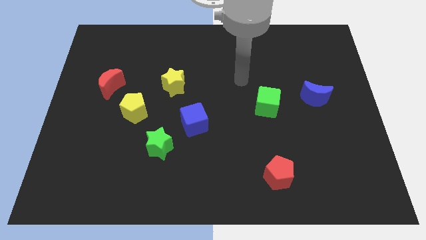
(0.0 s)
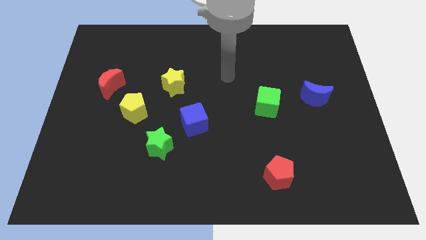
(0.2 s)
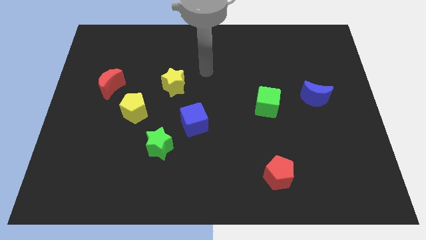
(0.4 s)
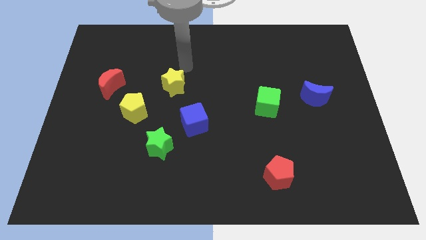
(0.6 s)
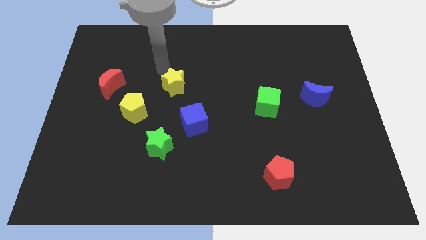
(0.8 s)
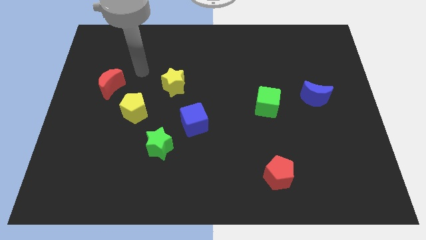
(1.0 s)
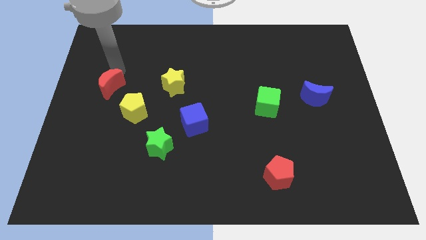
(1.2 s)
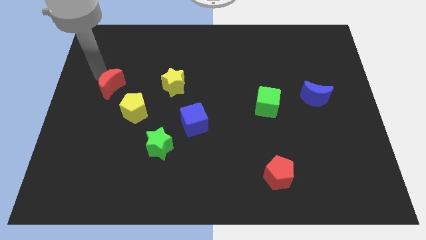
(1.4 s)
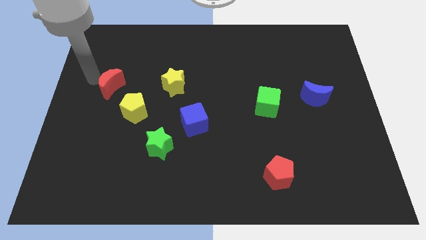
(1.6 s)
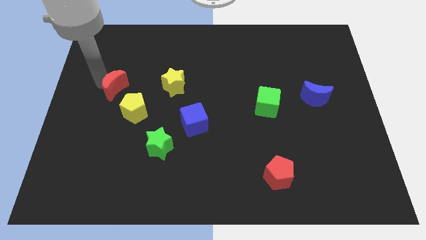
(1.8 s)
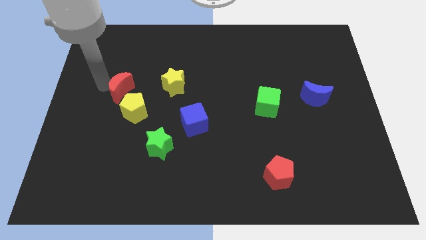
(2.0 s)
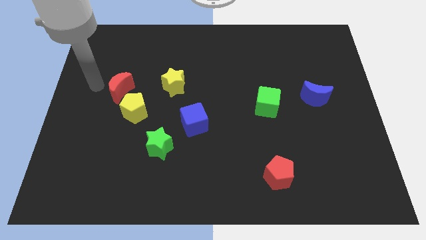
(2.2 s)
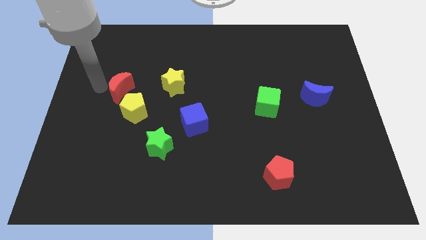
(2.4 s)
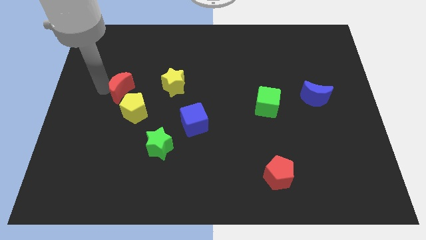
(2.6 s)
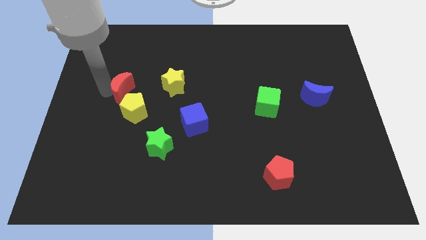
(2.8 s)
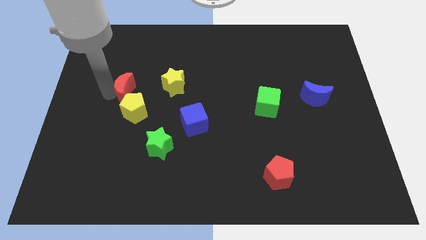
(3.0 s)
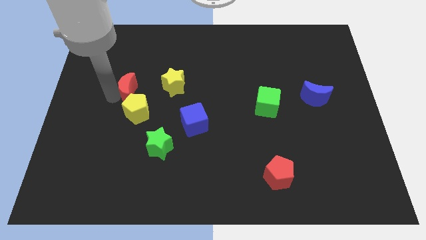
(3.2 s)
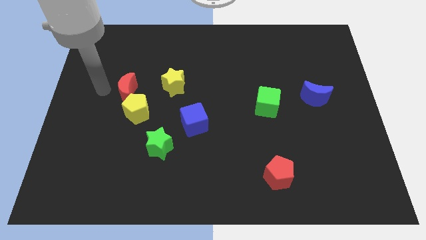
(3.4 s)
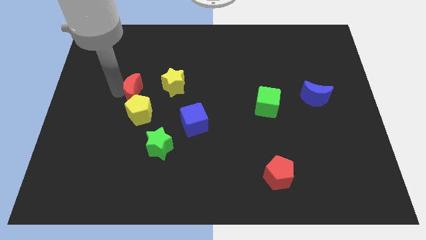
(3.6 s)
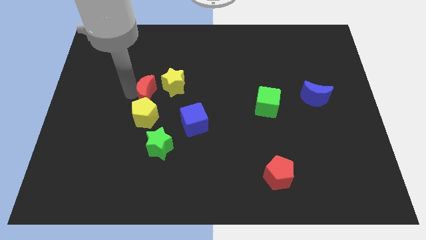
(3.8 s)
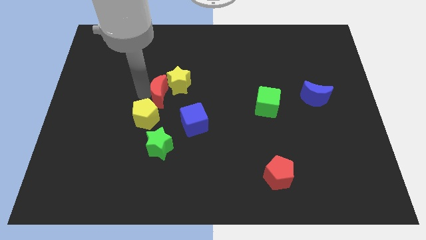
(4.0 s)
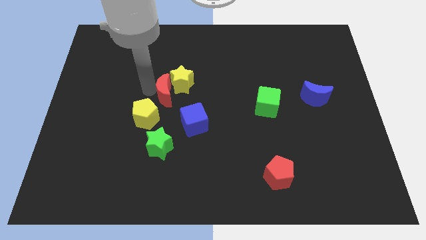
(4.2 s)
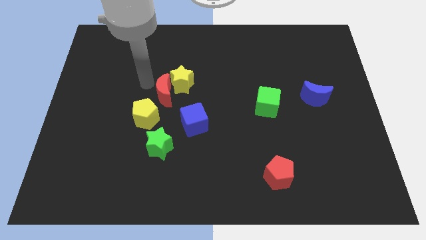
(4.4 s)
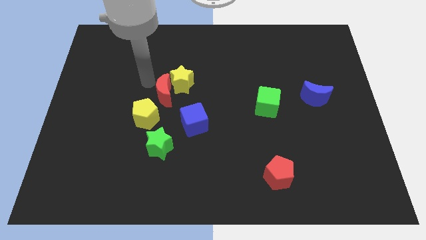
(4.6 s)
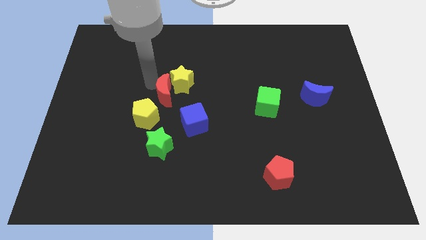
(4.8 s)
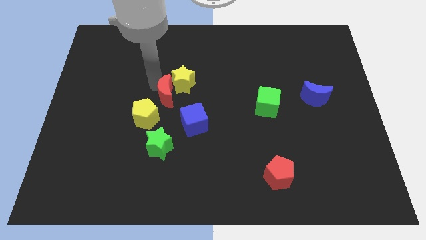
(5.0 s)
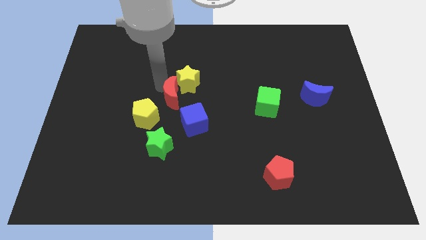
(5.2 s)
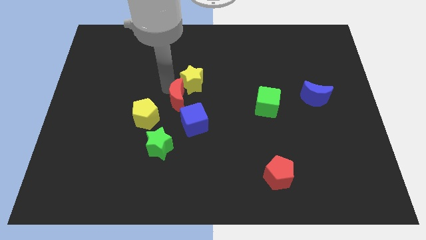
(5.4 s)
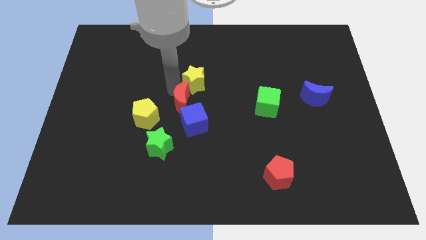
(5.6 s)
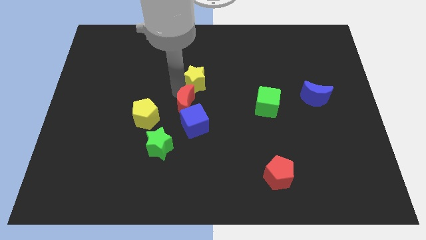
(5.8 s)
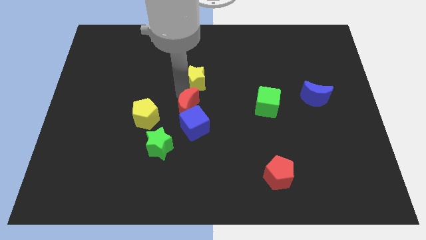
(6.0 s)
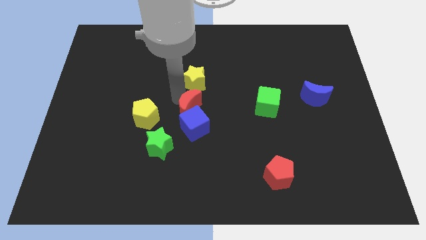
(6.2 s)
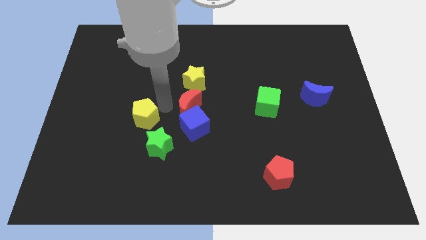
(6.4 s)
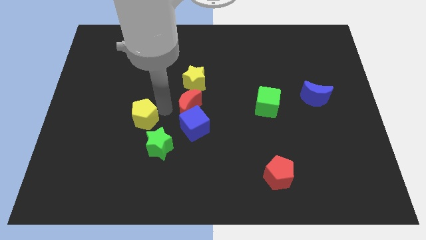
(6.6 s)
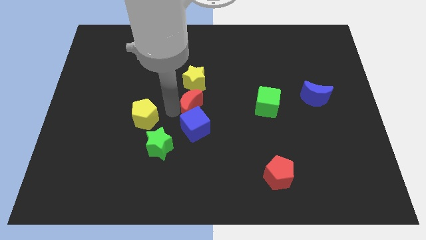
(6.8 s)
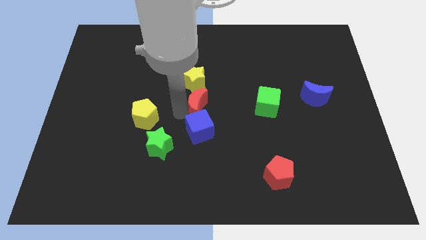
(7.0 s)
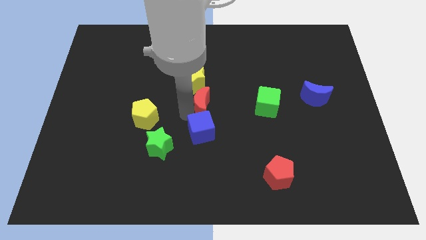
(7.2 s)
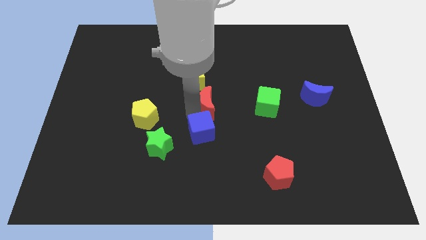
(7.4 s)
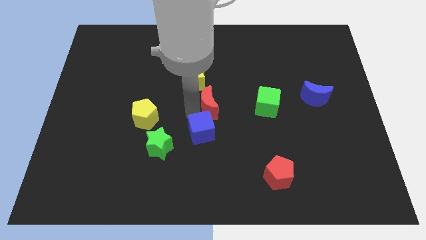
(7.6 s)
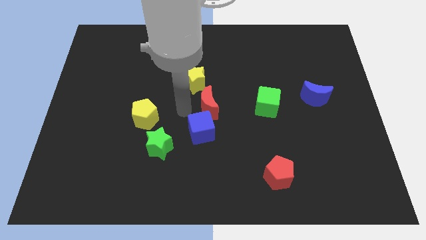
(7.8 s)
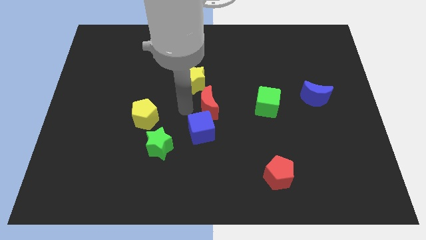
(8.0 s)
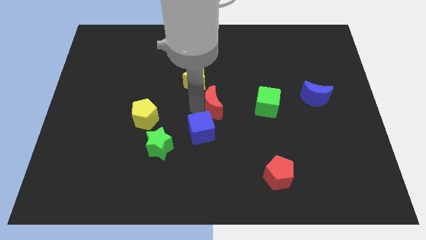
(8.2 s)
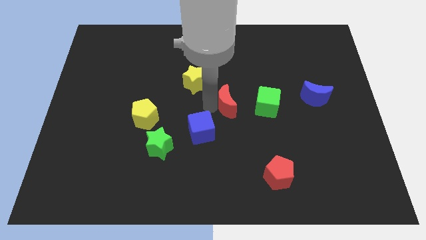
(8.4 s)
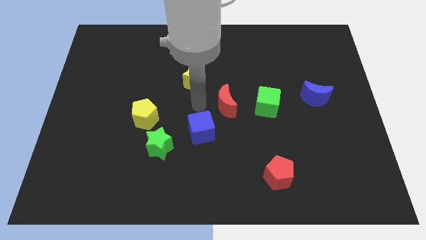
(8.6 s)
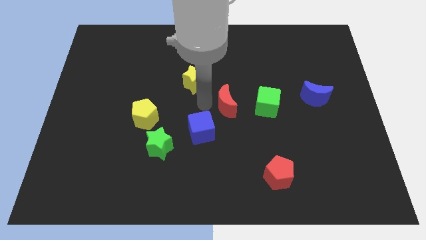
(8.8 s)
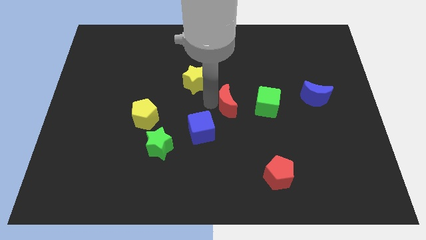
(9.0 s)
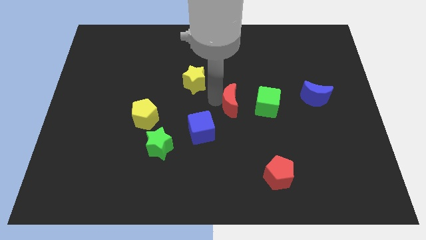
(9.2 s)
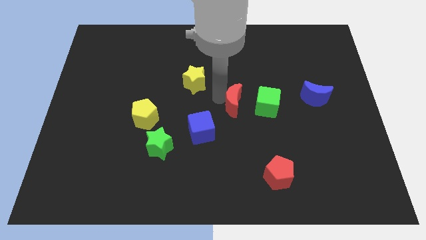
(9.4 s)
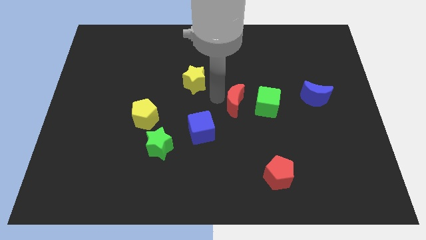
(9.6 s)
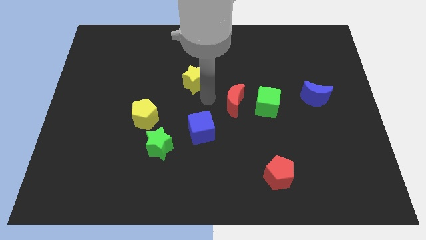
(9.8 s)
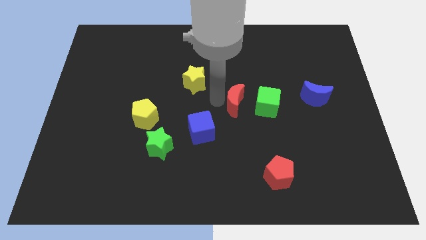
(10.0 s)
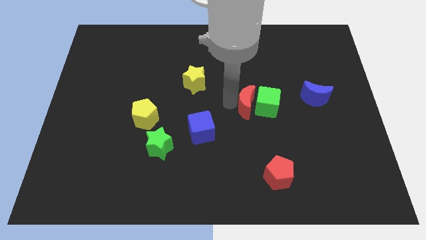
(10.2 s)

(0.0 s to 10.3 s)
move the red moon close to the green cube

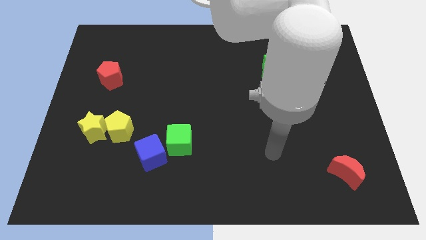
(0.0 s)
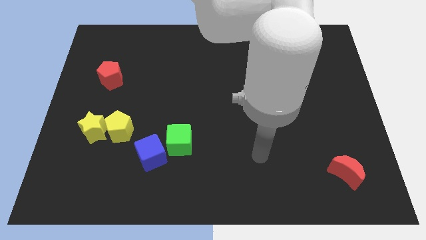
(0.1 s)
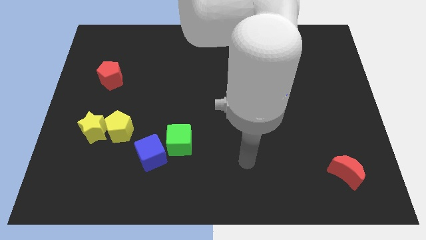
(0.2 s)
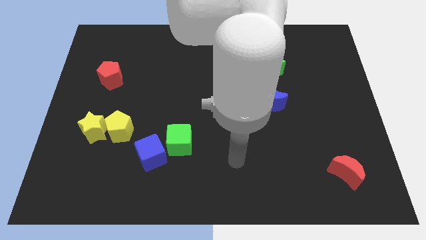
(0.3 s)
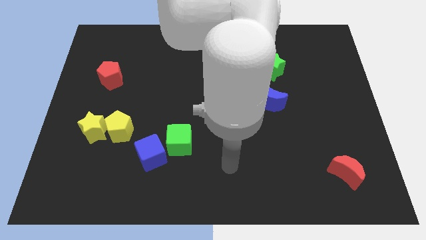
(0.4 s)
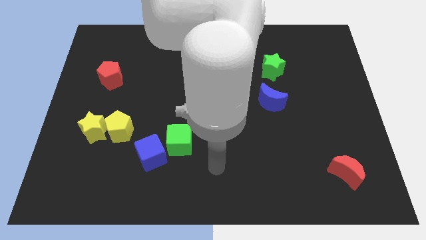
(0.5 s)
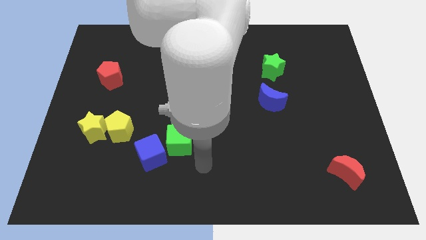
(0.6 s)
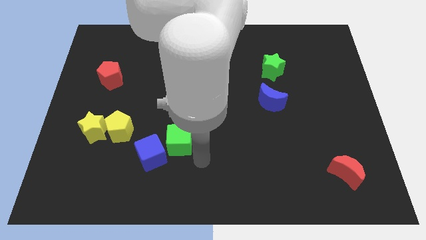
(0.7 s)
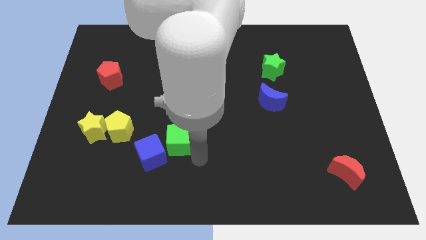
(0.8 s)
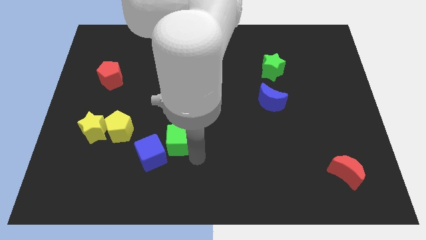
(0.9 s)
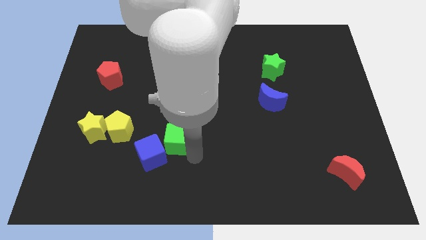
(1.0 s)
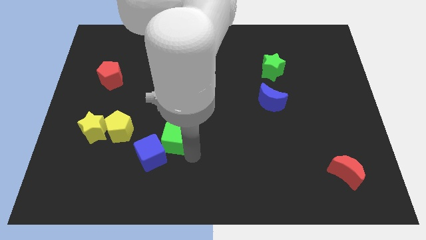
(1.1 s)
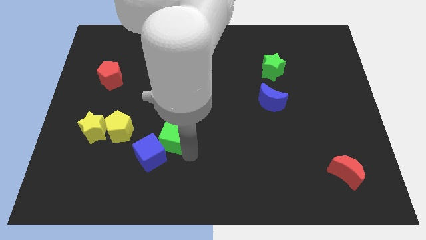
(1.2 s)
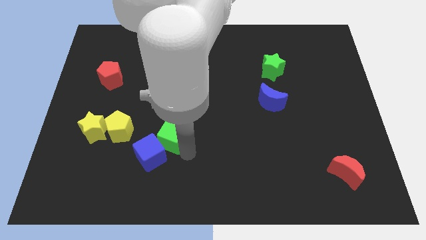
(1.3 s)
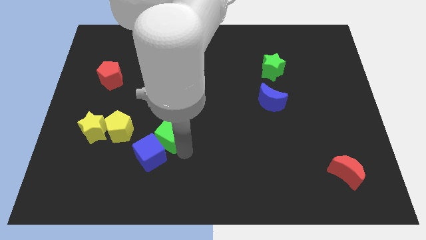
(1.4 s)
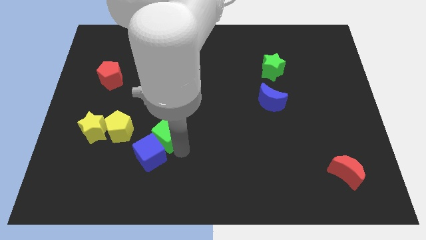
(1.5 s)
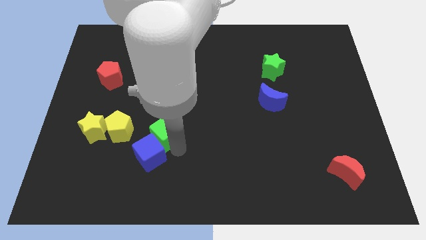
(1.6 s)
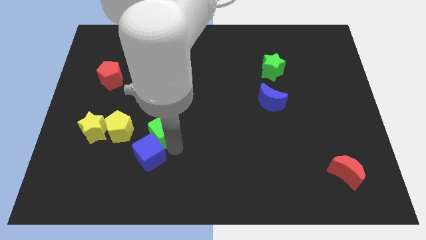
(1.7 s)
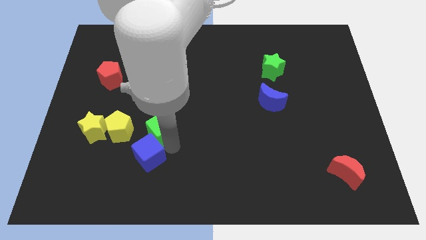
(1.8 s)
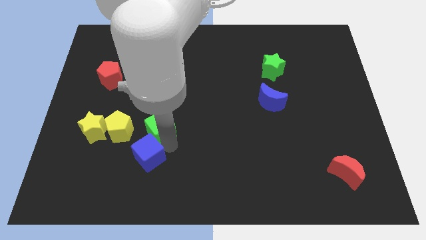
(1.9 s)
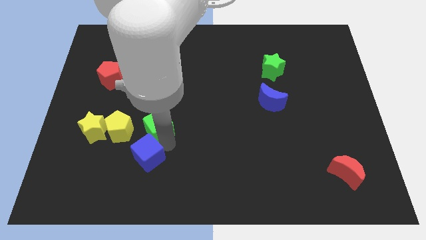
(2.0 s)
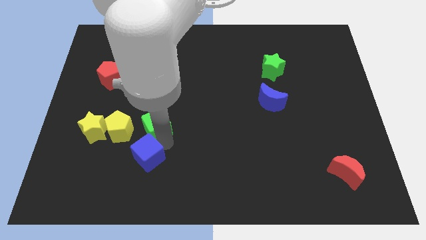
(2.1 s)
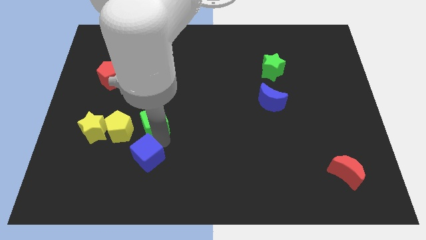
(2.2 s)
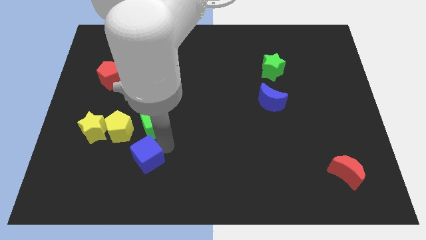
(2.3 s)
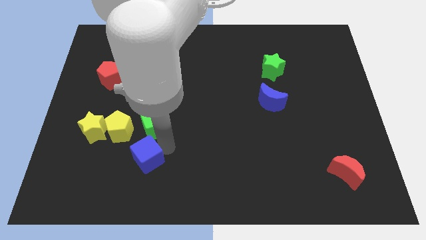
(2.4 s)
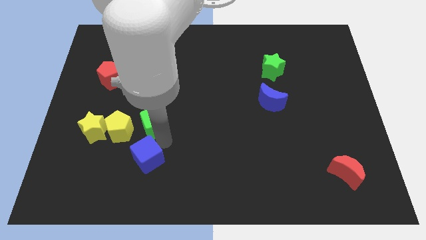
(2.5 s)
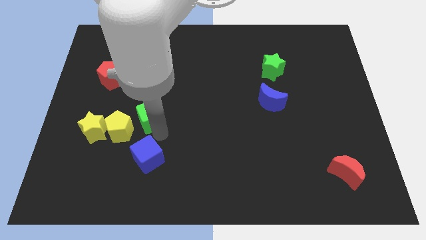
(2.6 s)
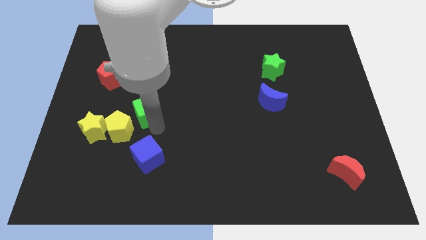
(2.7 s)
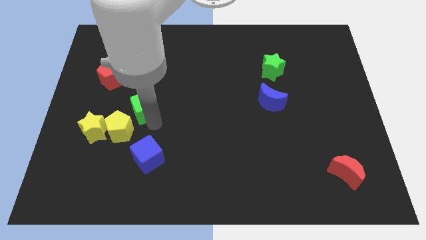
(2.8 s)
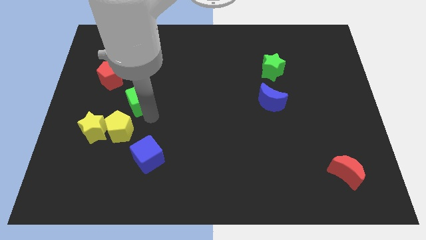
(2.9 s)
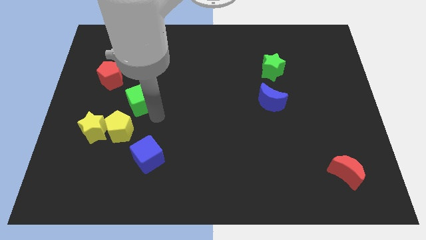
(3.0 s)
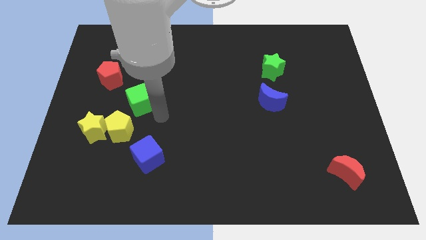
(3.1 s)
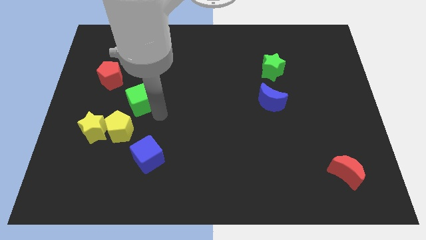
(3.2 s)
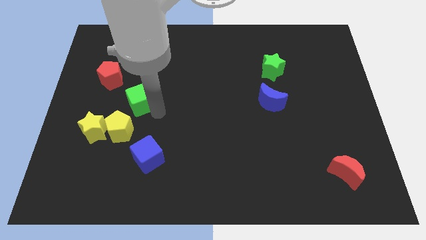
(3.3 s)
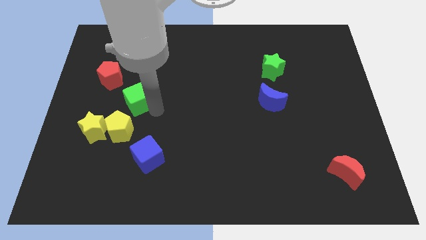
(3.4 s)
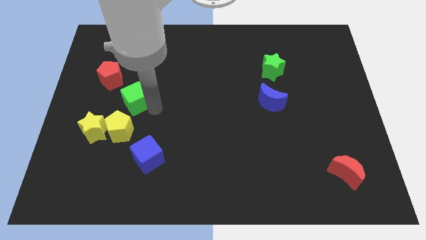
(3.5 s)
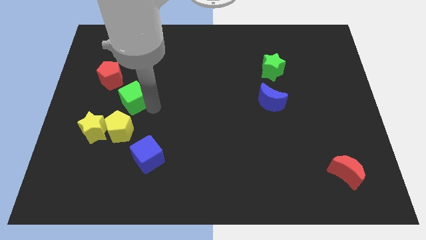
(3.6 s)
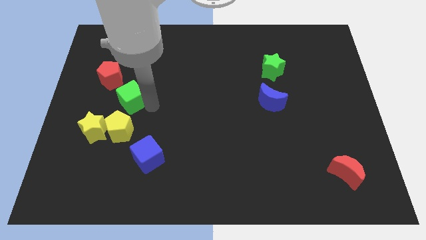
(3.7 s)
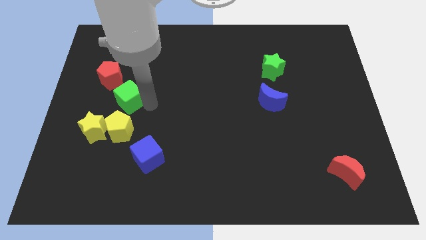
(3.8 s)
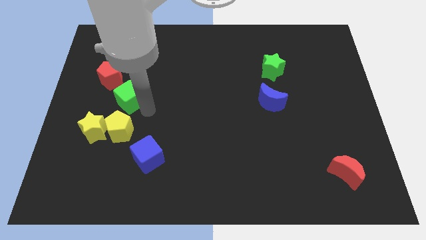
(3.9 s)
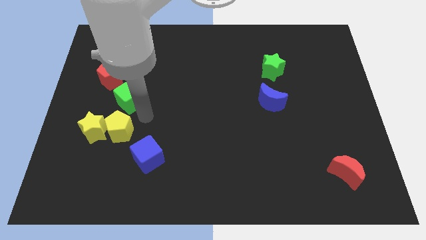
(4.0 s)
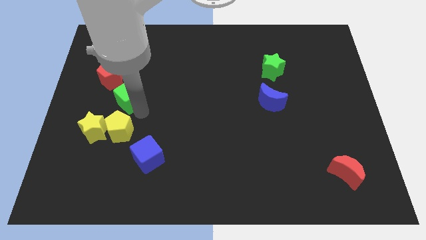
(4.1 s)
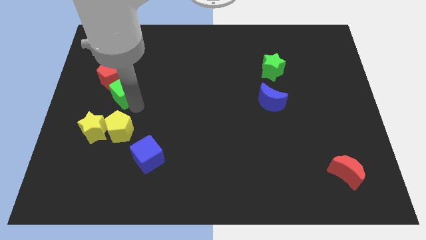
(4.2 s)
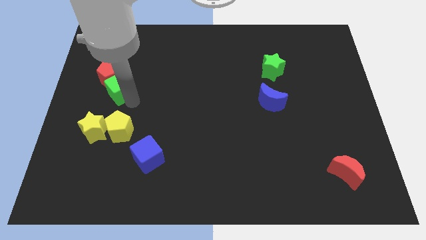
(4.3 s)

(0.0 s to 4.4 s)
push the green cube close to the red pentagon
